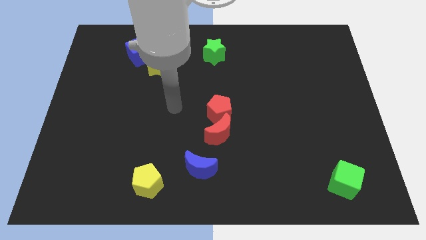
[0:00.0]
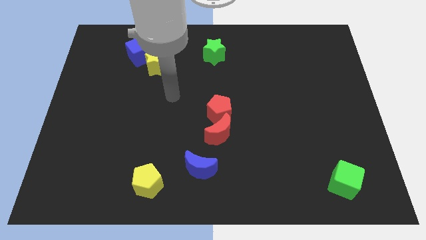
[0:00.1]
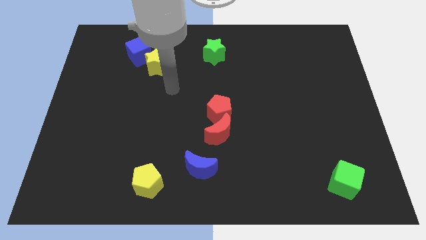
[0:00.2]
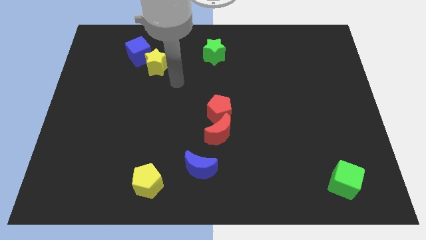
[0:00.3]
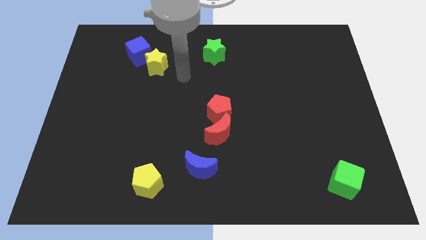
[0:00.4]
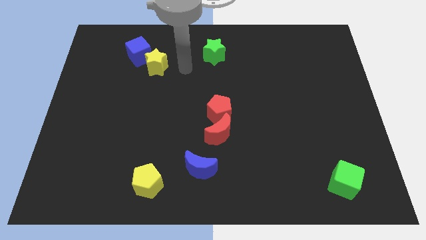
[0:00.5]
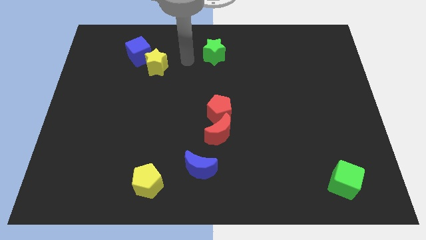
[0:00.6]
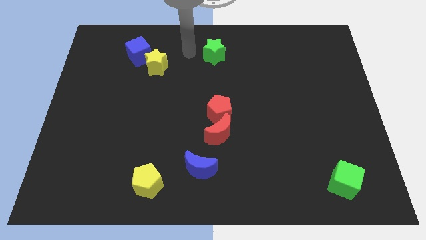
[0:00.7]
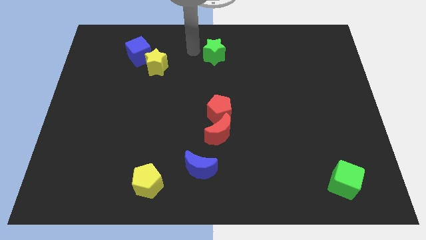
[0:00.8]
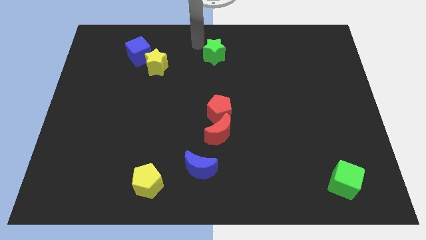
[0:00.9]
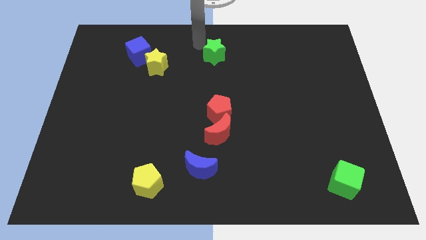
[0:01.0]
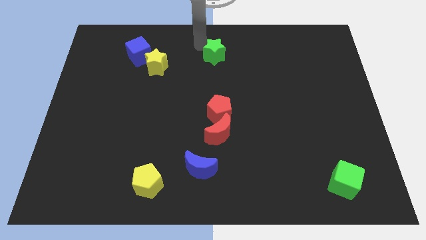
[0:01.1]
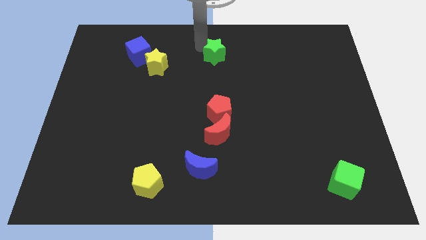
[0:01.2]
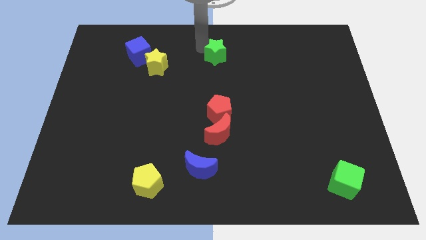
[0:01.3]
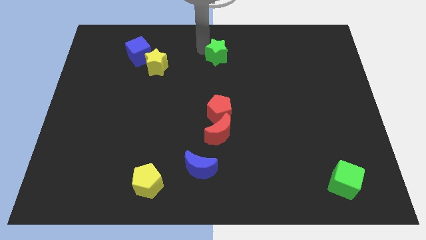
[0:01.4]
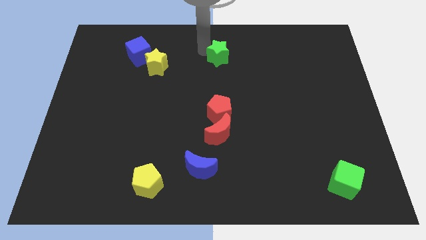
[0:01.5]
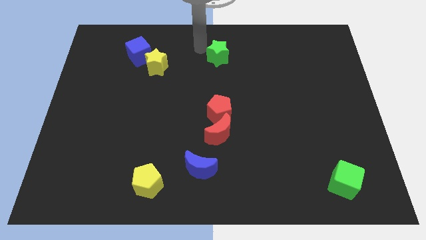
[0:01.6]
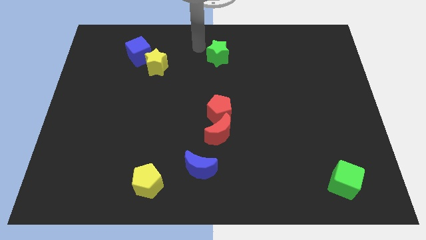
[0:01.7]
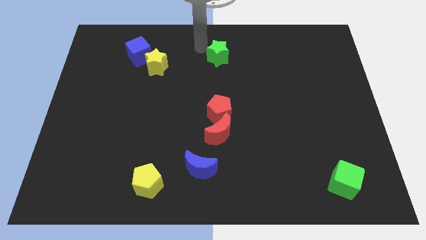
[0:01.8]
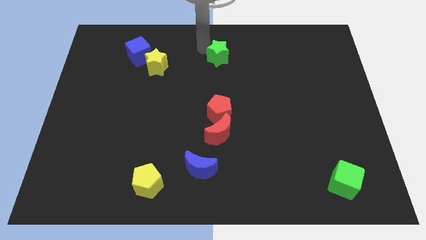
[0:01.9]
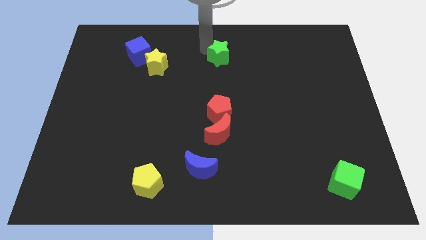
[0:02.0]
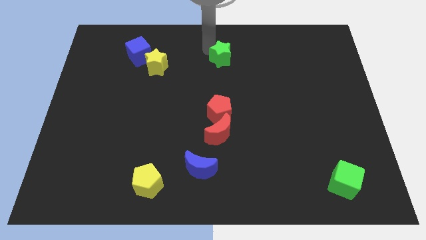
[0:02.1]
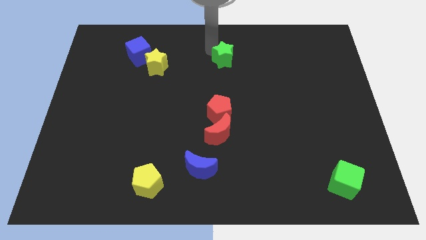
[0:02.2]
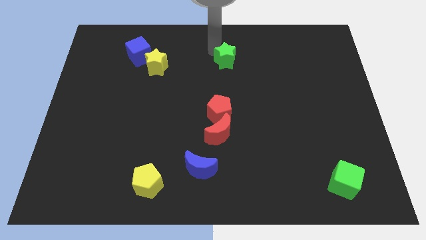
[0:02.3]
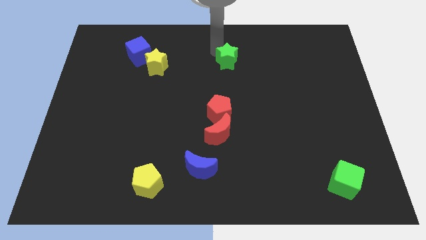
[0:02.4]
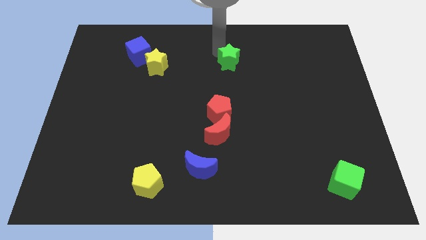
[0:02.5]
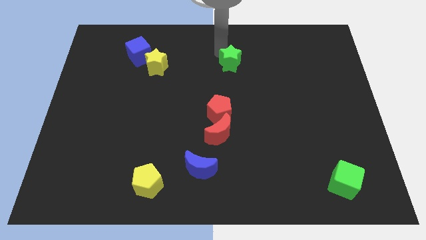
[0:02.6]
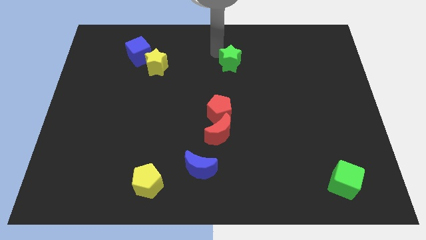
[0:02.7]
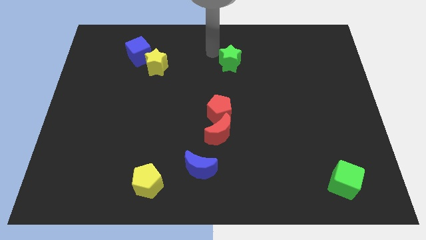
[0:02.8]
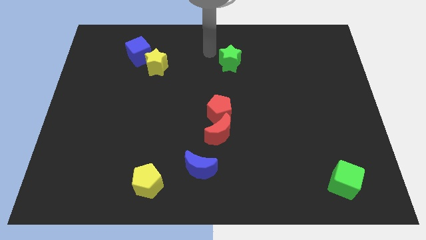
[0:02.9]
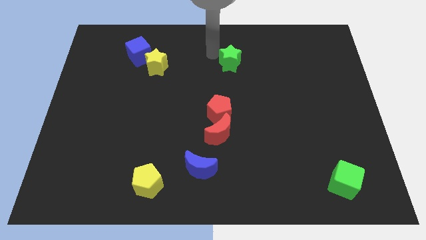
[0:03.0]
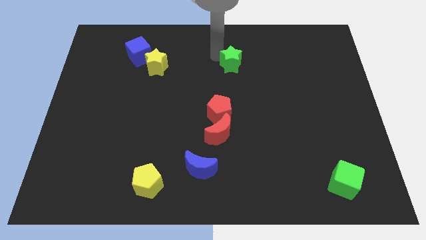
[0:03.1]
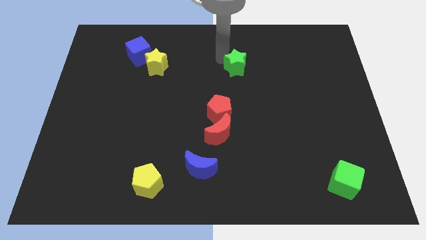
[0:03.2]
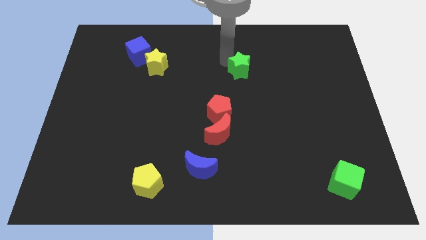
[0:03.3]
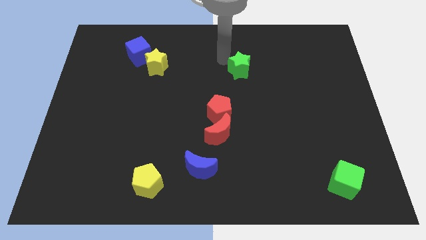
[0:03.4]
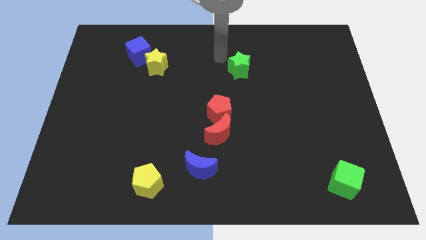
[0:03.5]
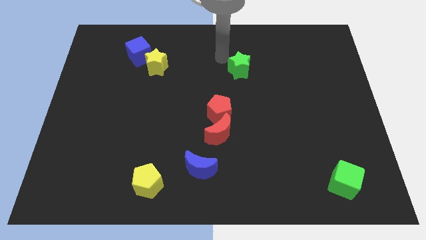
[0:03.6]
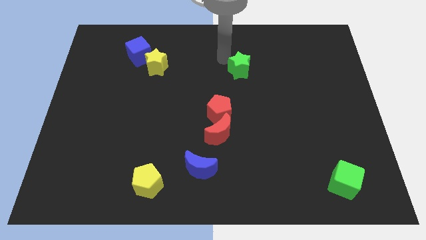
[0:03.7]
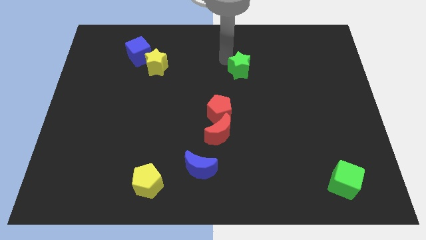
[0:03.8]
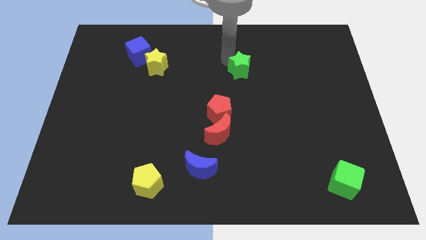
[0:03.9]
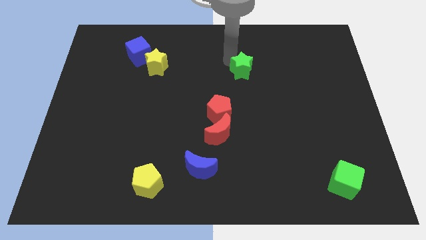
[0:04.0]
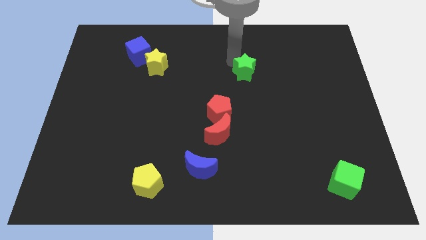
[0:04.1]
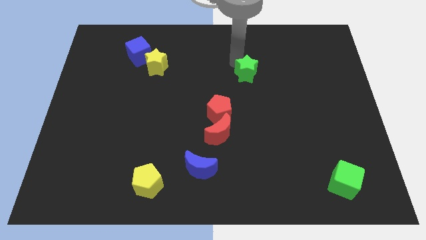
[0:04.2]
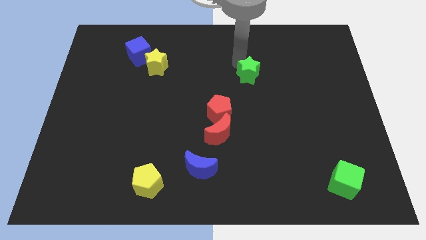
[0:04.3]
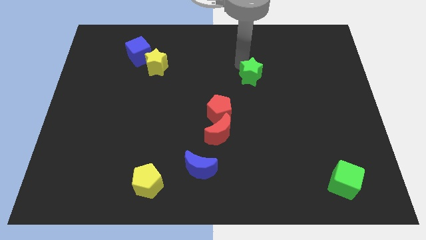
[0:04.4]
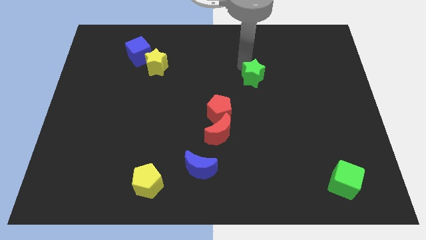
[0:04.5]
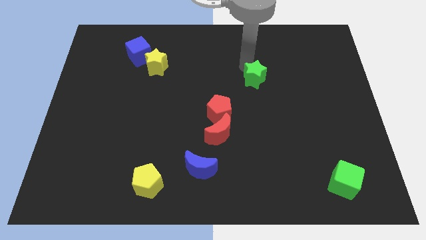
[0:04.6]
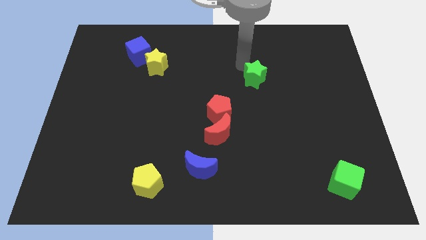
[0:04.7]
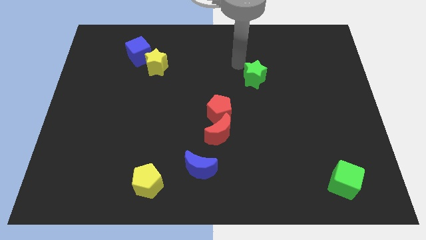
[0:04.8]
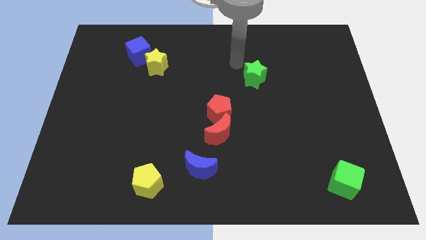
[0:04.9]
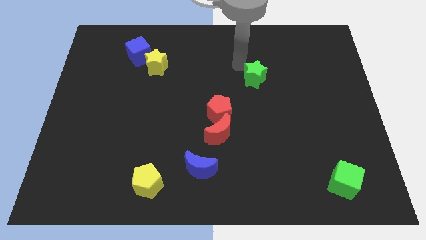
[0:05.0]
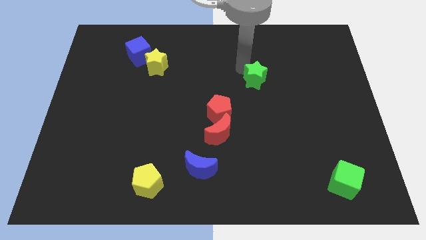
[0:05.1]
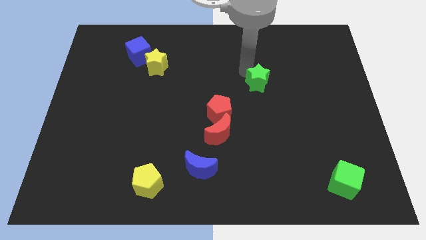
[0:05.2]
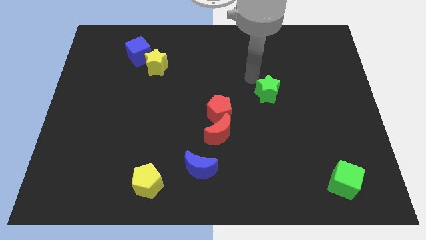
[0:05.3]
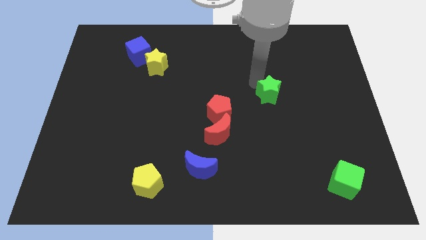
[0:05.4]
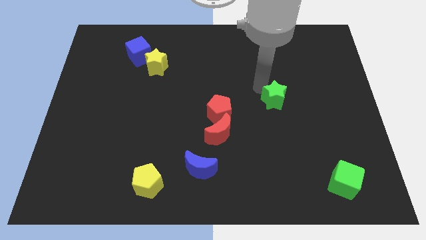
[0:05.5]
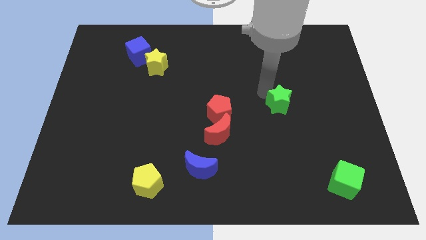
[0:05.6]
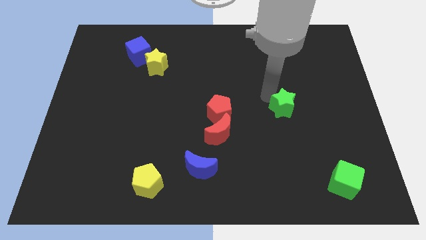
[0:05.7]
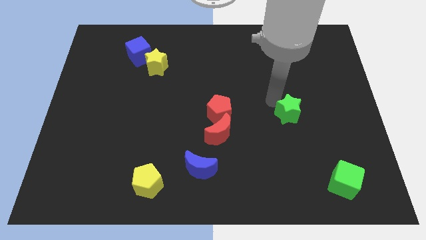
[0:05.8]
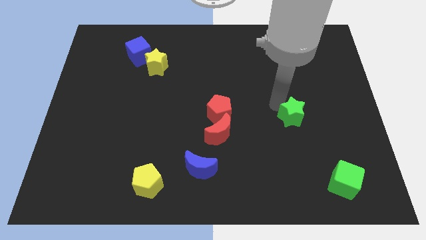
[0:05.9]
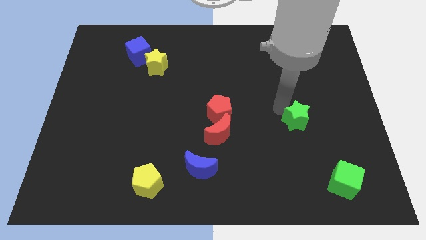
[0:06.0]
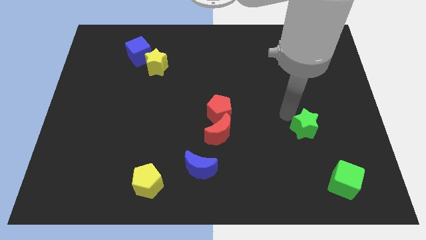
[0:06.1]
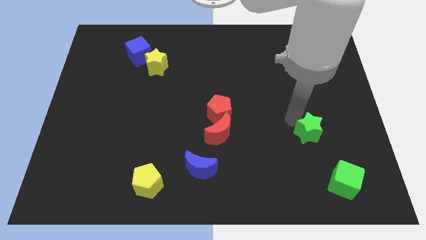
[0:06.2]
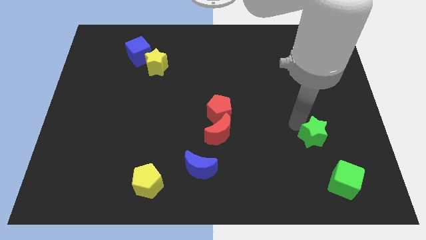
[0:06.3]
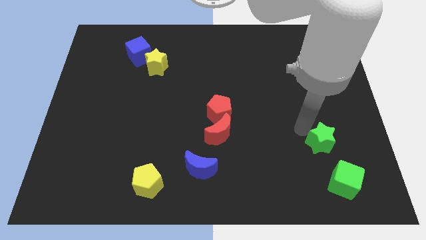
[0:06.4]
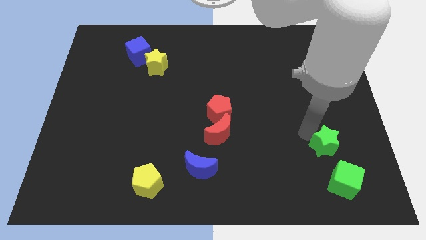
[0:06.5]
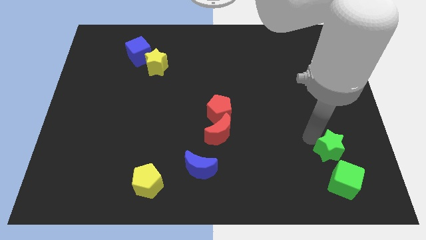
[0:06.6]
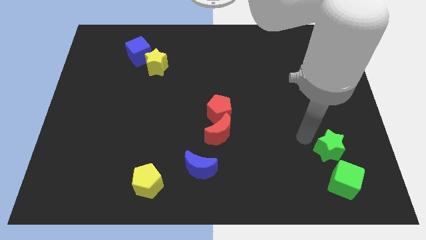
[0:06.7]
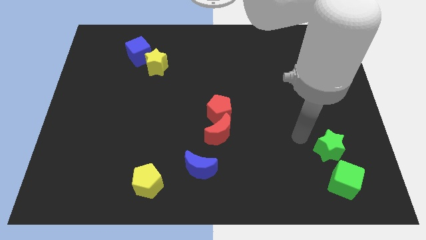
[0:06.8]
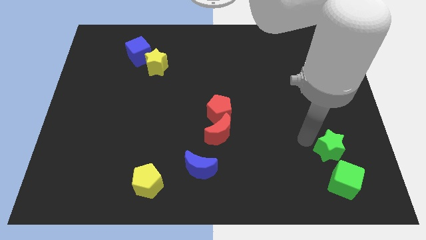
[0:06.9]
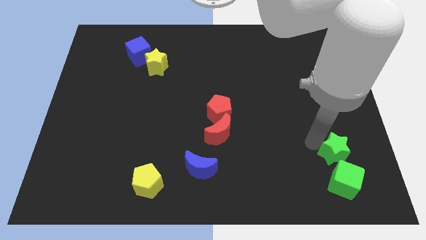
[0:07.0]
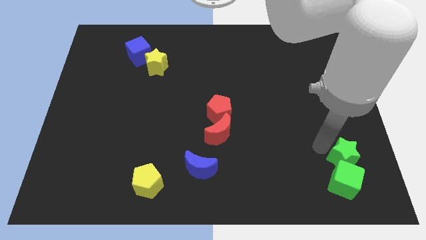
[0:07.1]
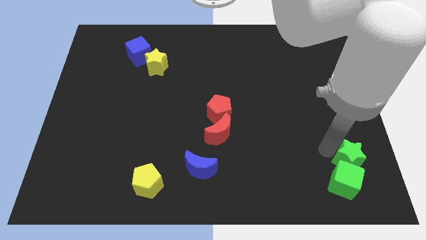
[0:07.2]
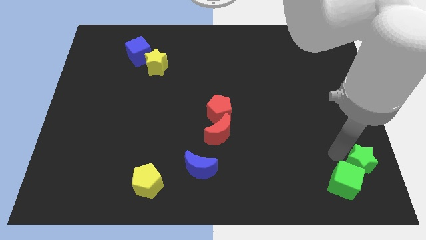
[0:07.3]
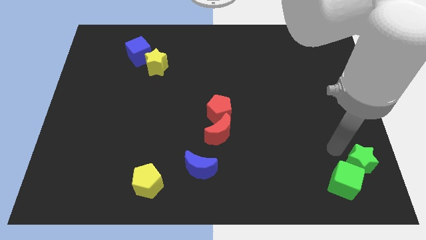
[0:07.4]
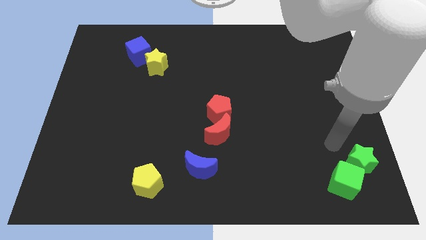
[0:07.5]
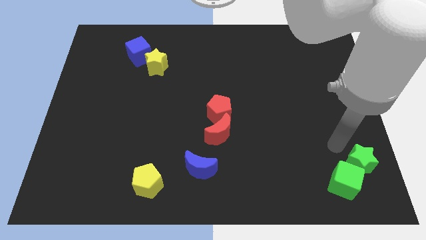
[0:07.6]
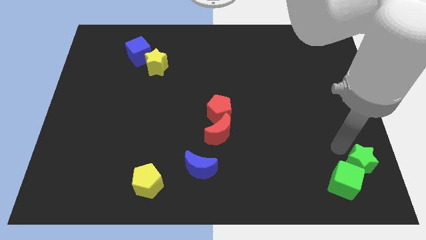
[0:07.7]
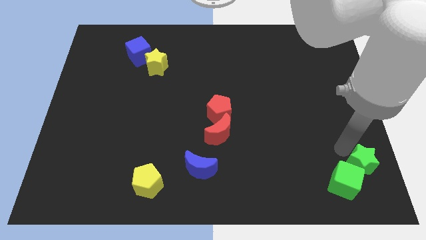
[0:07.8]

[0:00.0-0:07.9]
move the green star to the lower right corner
